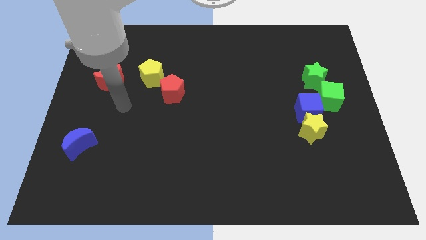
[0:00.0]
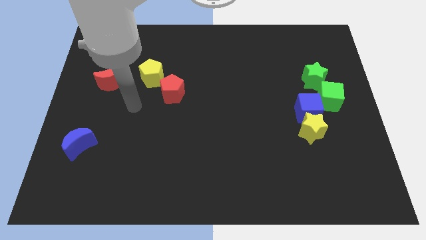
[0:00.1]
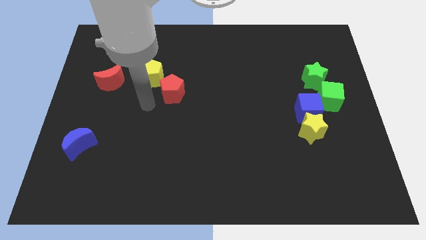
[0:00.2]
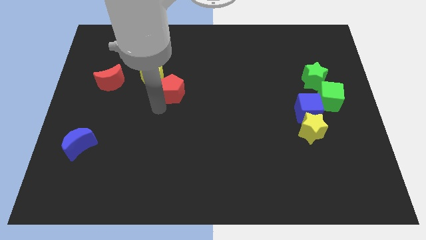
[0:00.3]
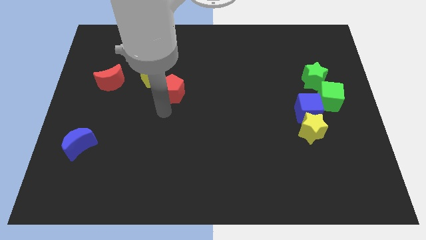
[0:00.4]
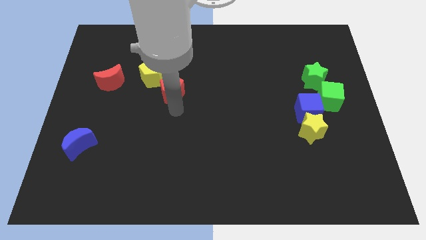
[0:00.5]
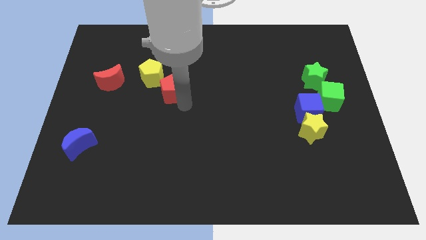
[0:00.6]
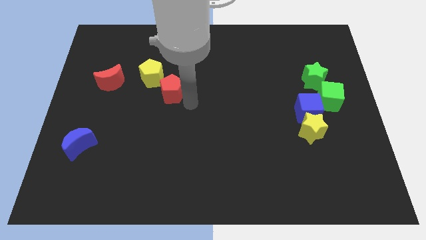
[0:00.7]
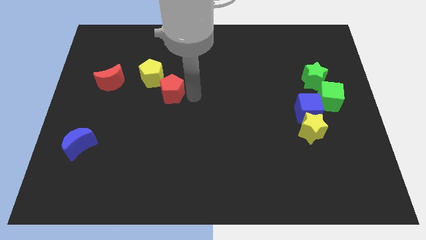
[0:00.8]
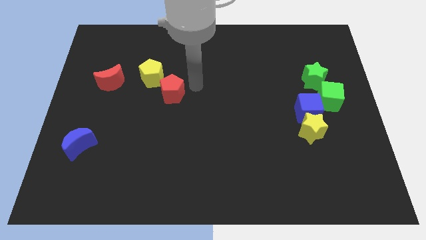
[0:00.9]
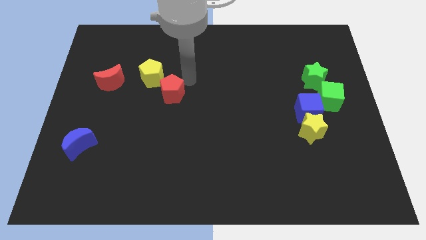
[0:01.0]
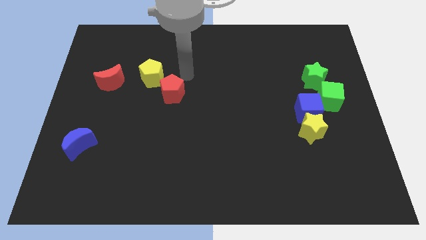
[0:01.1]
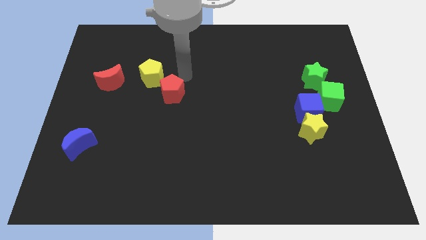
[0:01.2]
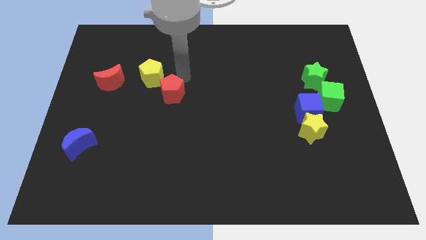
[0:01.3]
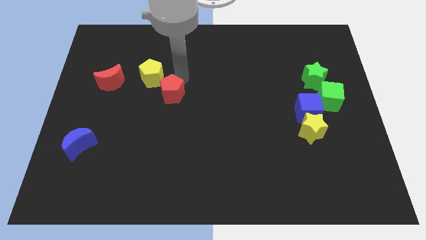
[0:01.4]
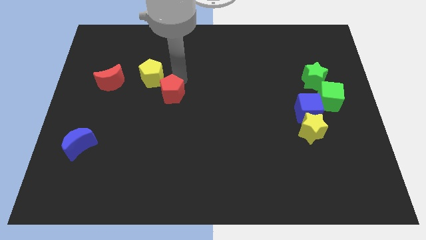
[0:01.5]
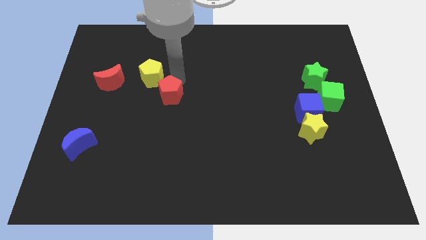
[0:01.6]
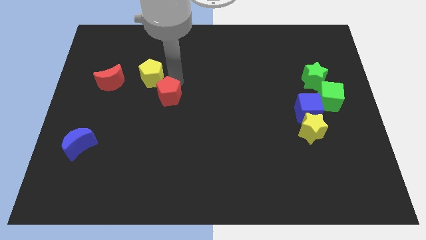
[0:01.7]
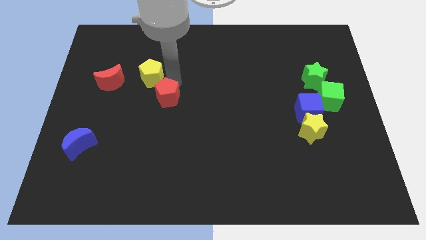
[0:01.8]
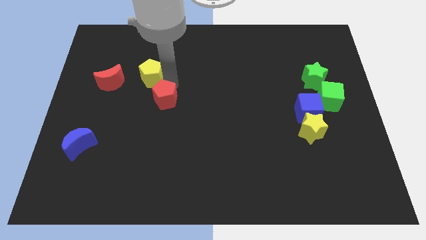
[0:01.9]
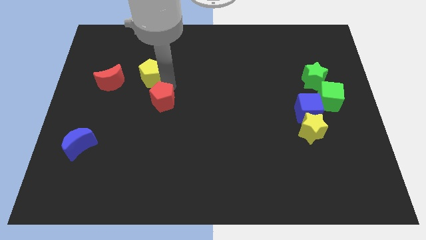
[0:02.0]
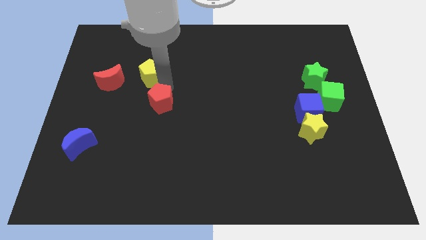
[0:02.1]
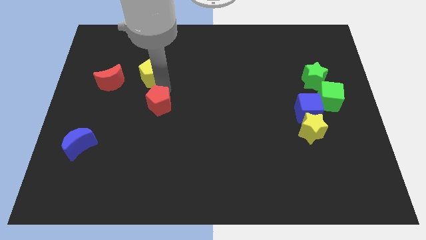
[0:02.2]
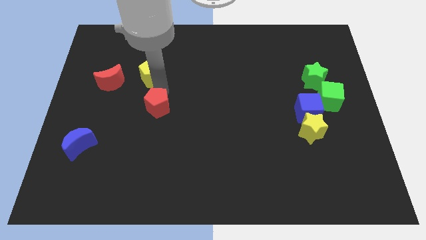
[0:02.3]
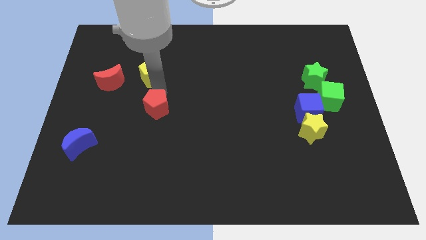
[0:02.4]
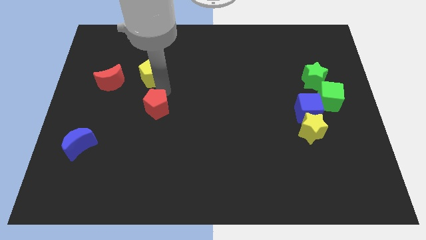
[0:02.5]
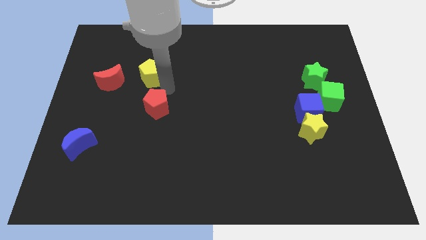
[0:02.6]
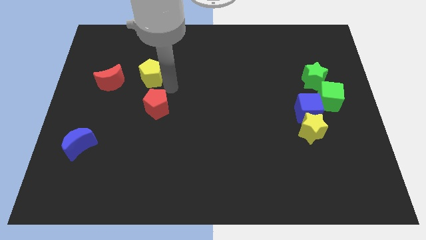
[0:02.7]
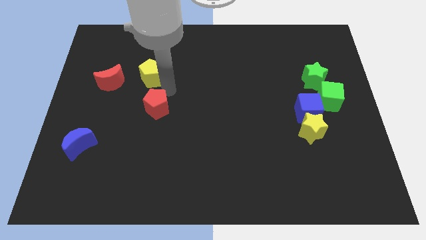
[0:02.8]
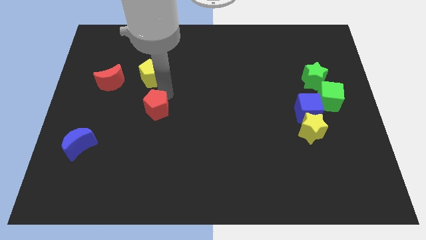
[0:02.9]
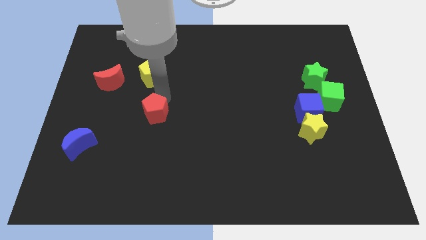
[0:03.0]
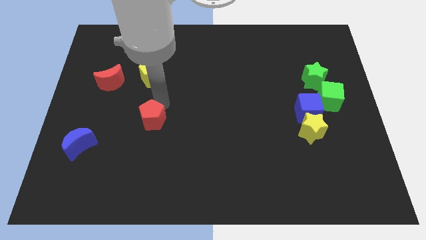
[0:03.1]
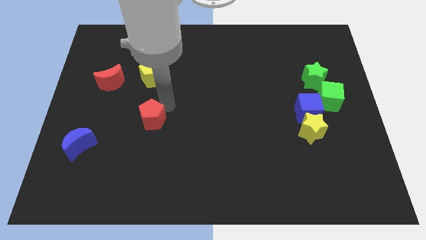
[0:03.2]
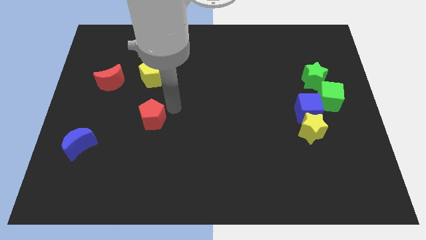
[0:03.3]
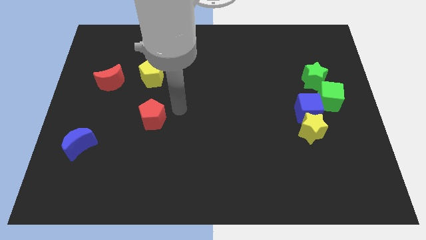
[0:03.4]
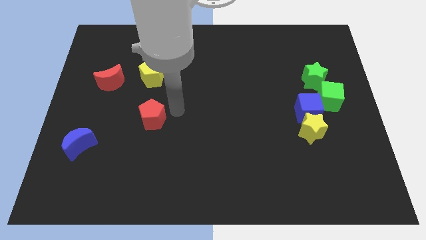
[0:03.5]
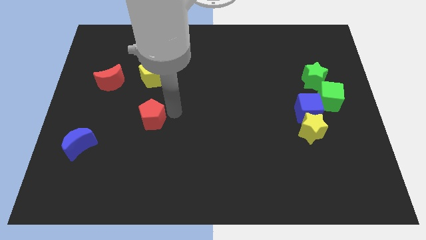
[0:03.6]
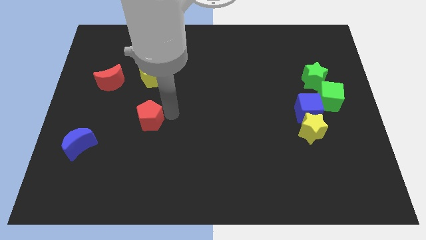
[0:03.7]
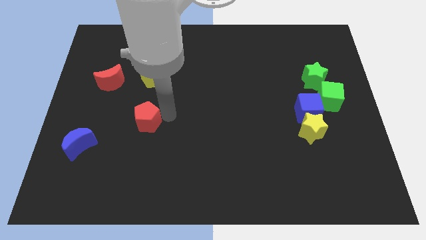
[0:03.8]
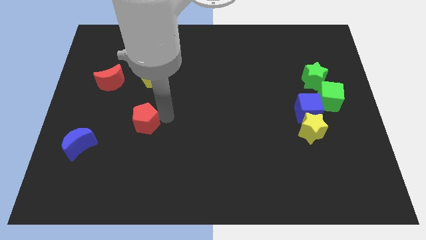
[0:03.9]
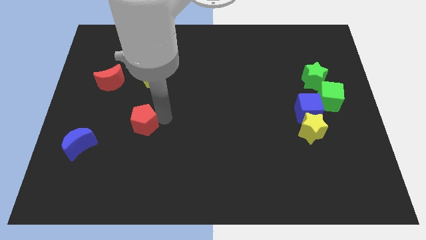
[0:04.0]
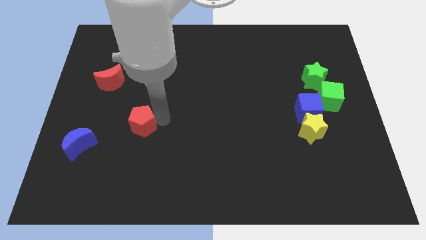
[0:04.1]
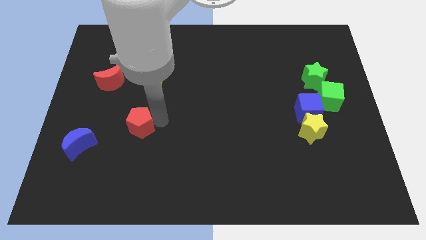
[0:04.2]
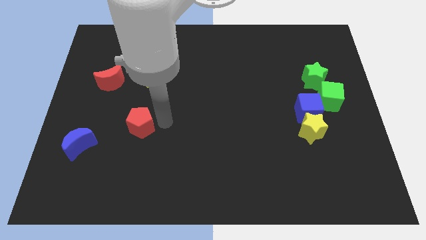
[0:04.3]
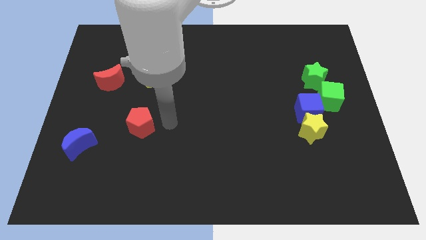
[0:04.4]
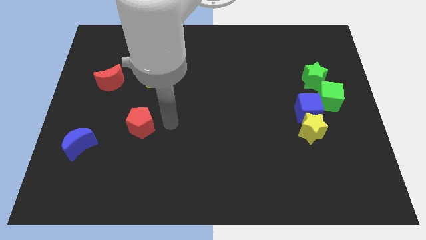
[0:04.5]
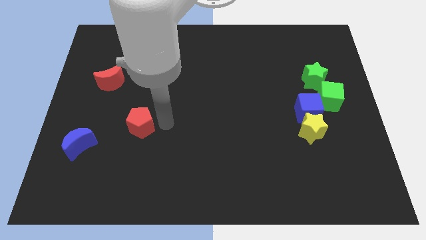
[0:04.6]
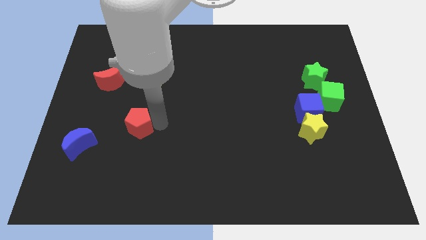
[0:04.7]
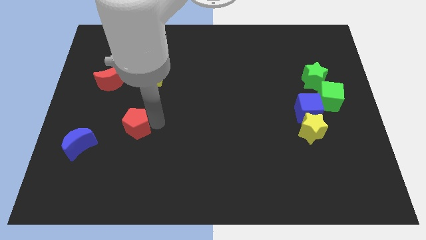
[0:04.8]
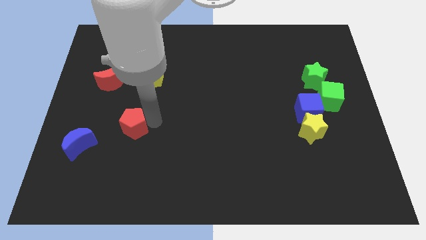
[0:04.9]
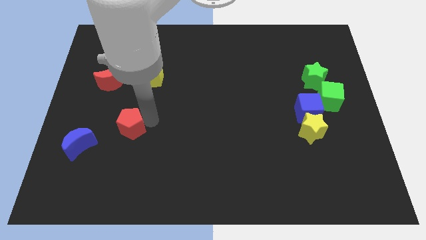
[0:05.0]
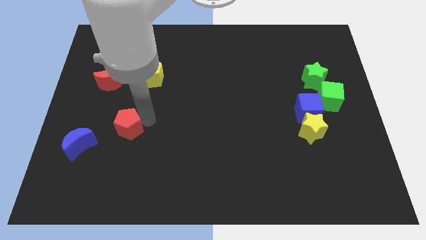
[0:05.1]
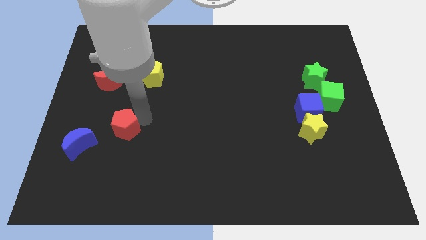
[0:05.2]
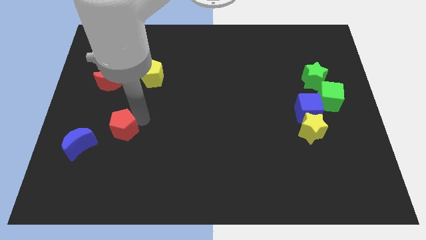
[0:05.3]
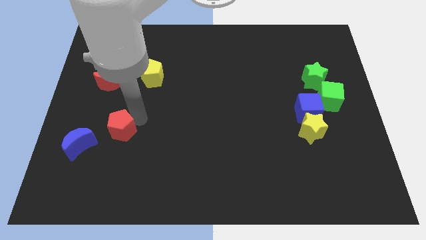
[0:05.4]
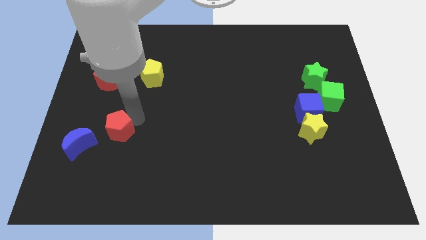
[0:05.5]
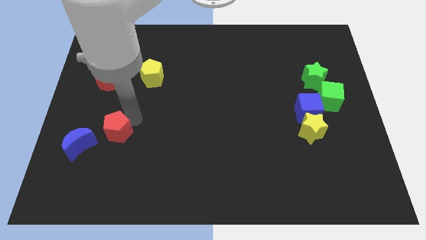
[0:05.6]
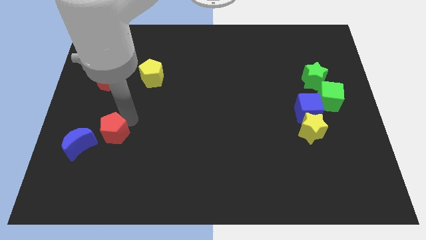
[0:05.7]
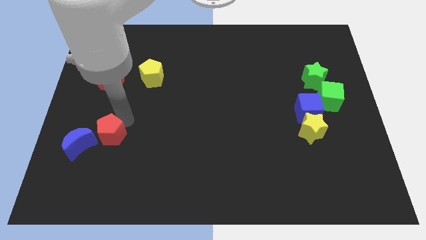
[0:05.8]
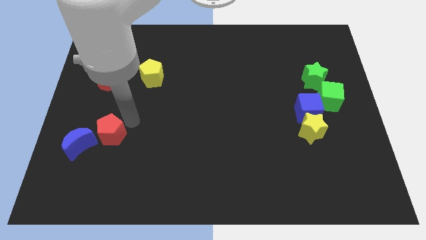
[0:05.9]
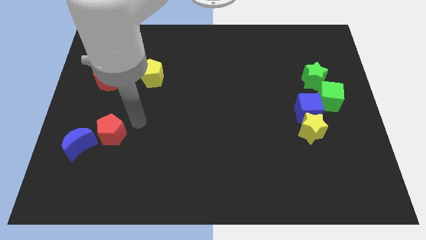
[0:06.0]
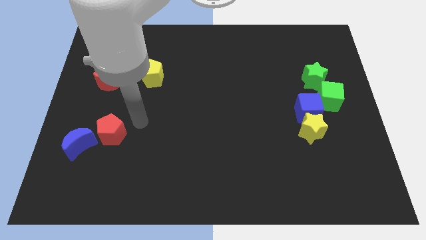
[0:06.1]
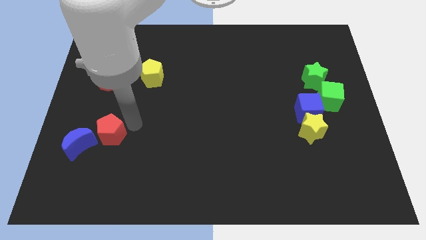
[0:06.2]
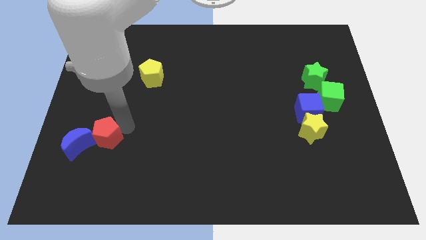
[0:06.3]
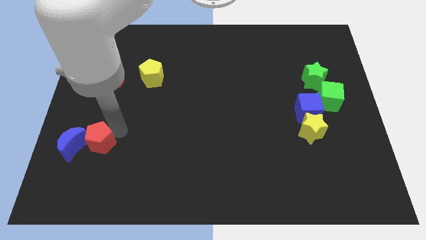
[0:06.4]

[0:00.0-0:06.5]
put the red pentagon next to the blue moon

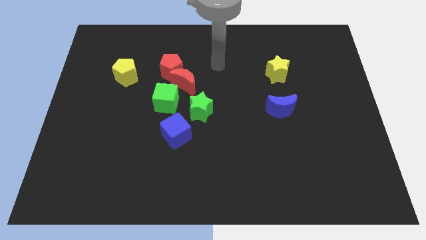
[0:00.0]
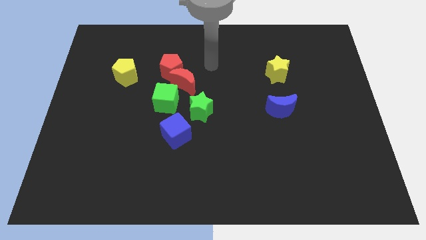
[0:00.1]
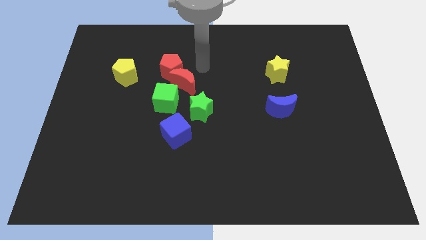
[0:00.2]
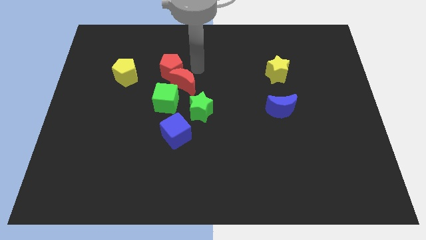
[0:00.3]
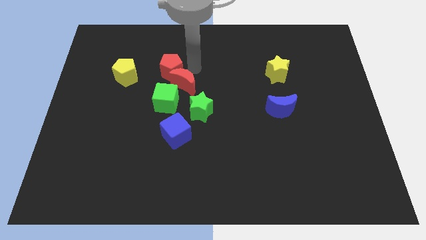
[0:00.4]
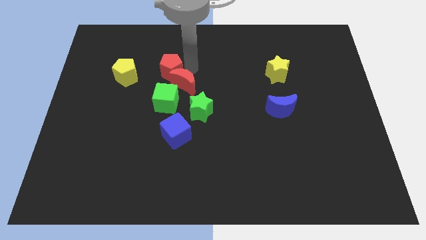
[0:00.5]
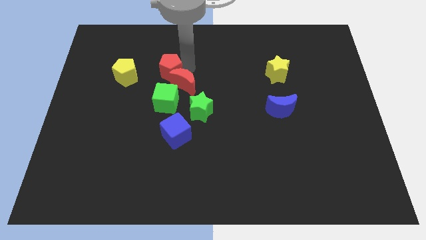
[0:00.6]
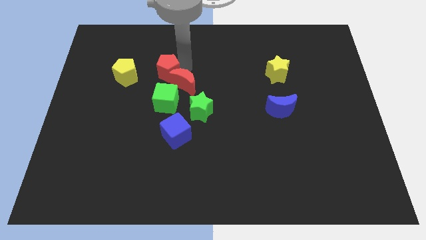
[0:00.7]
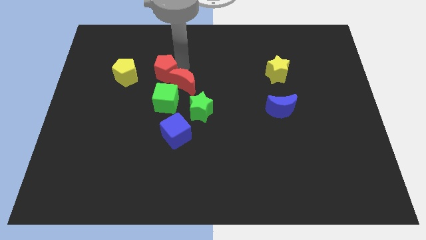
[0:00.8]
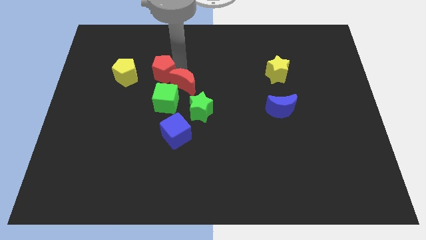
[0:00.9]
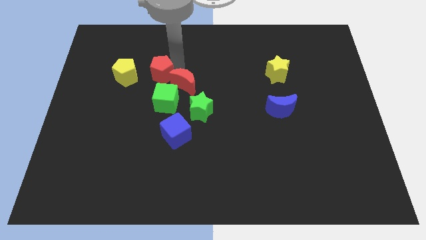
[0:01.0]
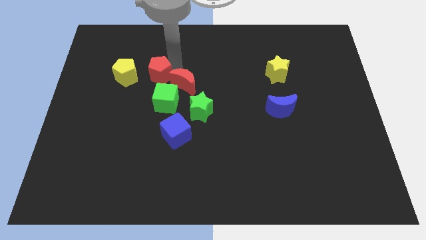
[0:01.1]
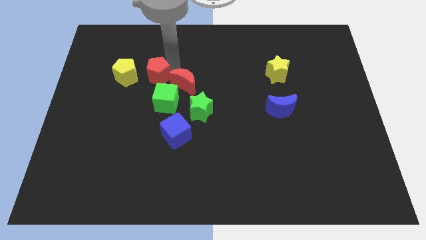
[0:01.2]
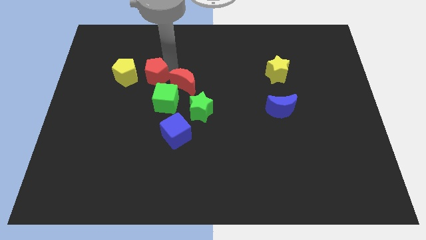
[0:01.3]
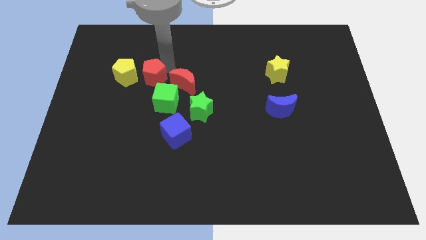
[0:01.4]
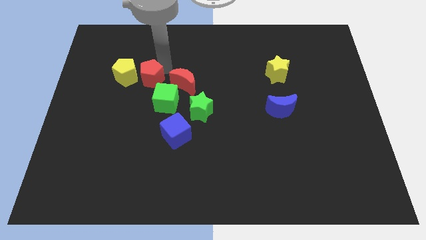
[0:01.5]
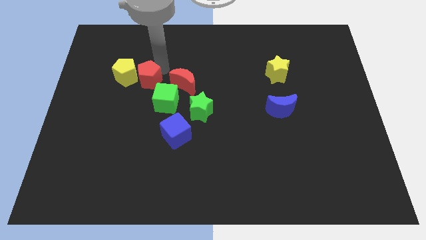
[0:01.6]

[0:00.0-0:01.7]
push the red pentagon next to the yellow pentagon
